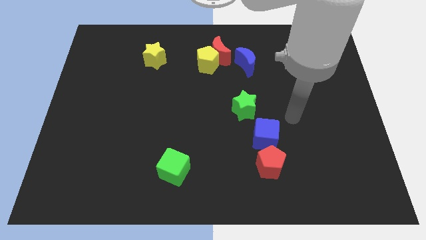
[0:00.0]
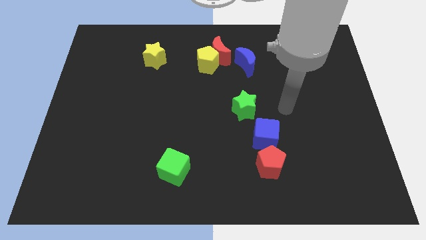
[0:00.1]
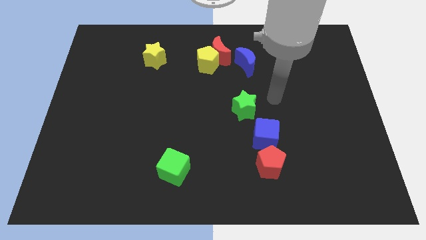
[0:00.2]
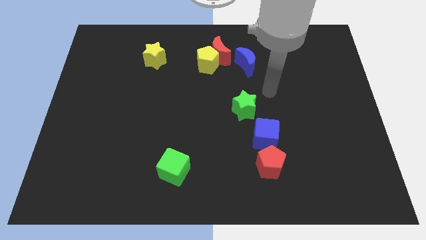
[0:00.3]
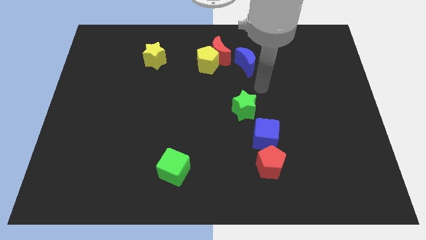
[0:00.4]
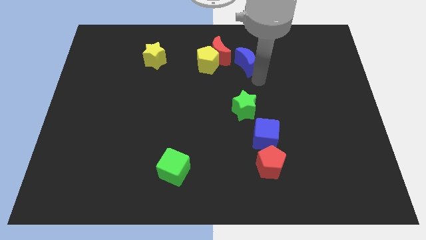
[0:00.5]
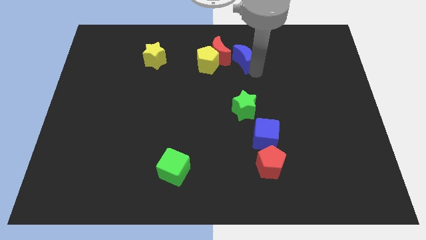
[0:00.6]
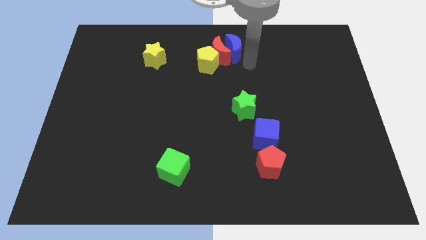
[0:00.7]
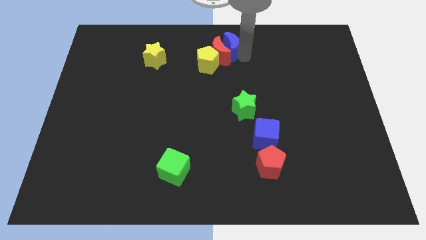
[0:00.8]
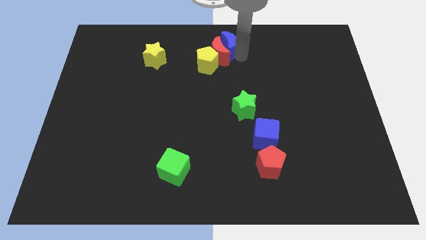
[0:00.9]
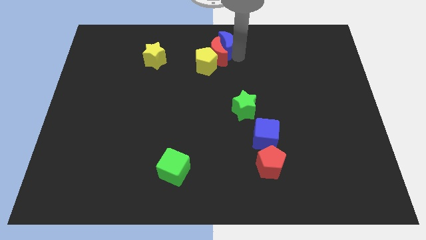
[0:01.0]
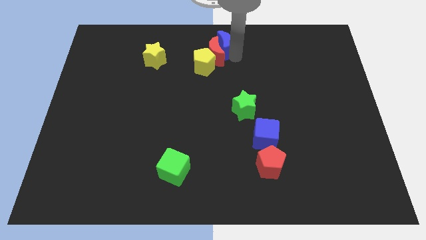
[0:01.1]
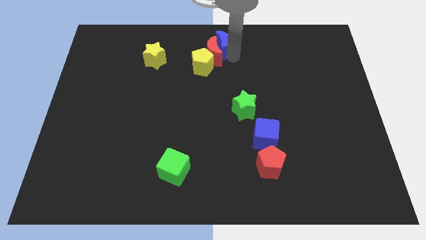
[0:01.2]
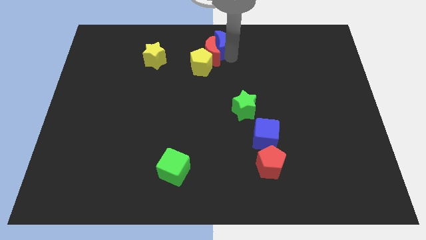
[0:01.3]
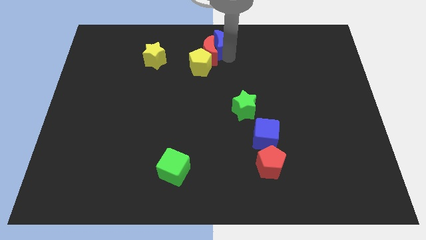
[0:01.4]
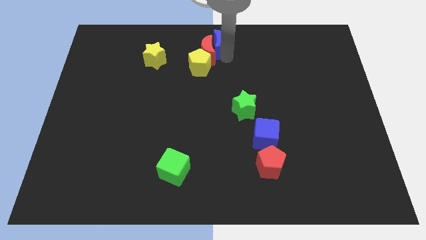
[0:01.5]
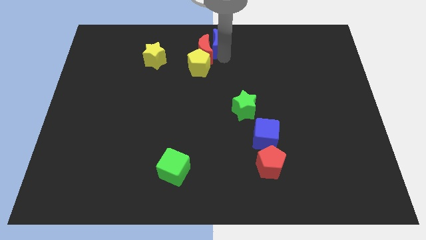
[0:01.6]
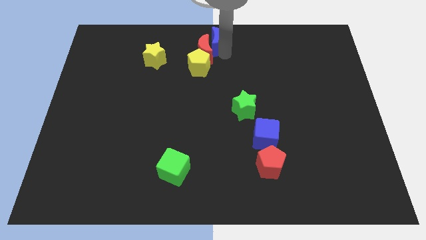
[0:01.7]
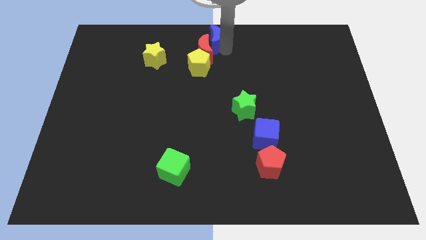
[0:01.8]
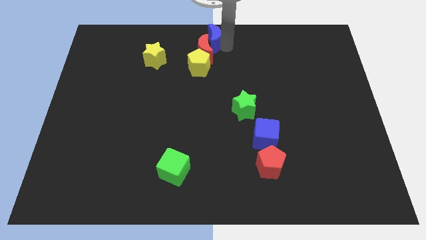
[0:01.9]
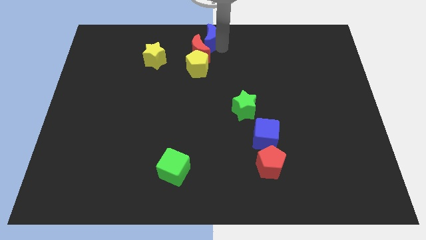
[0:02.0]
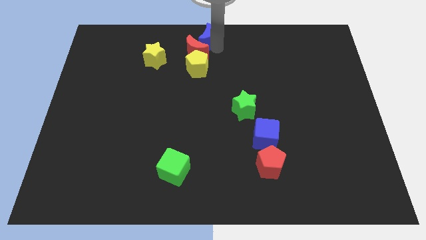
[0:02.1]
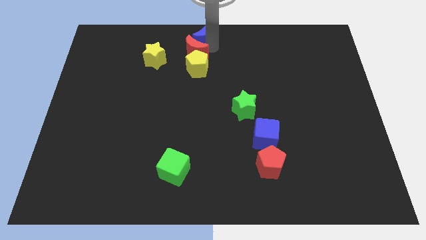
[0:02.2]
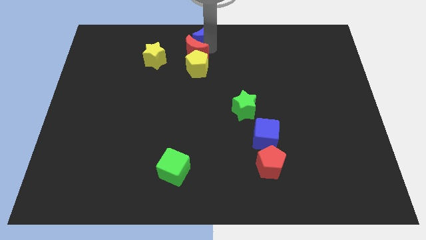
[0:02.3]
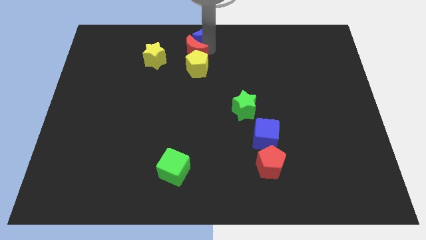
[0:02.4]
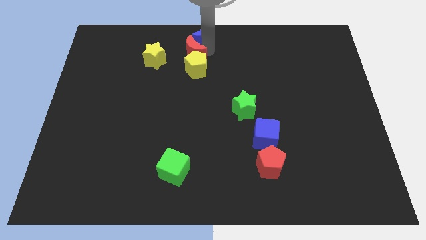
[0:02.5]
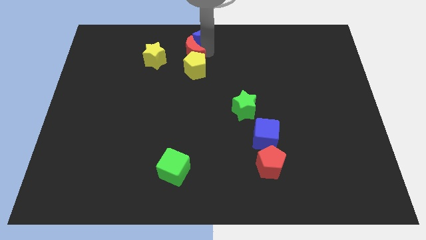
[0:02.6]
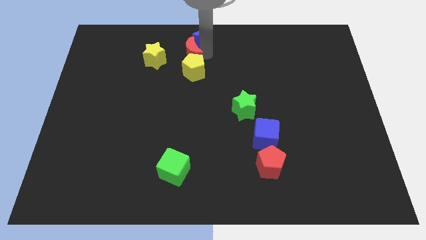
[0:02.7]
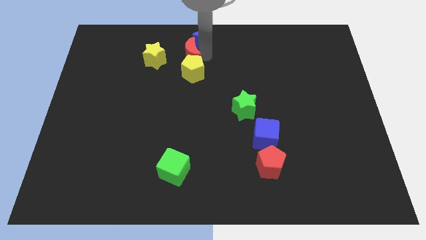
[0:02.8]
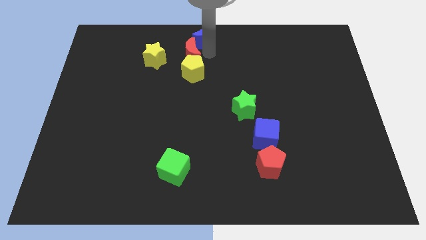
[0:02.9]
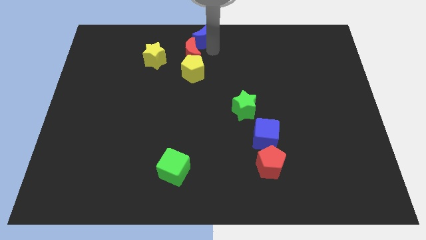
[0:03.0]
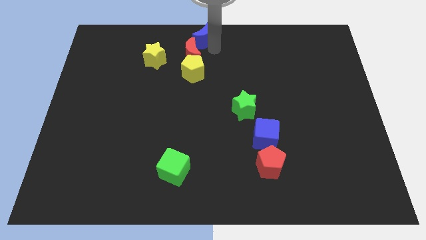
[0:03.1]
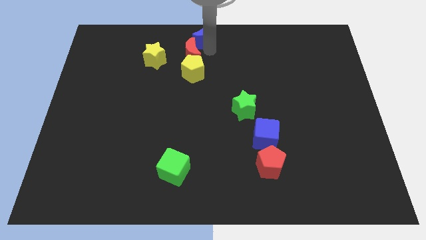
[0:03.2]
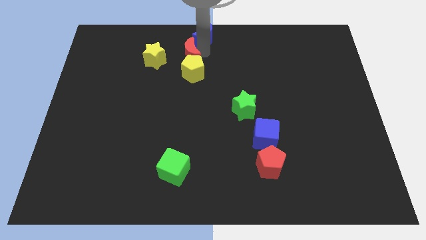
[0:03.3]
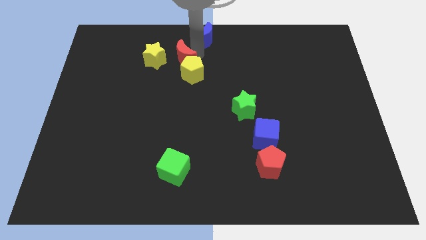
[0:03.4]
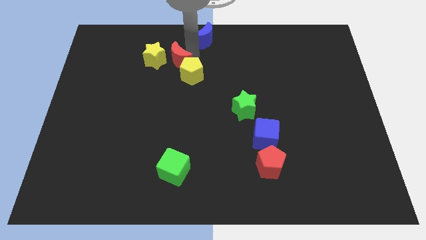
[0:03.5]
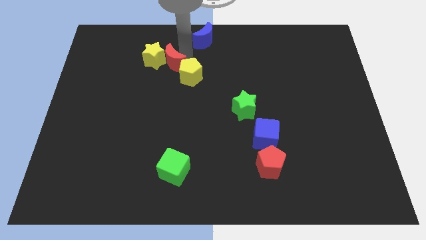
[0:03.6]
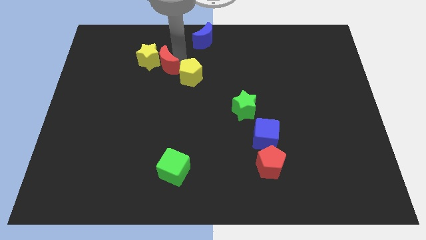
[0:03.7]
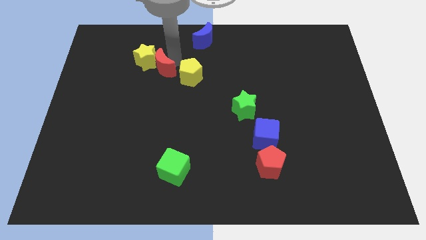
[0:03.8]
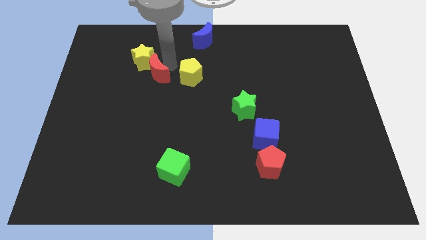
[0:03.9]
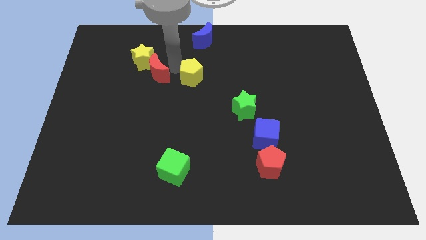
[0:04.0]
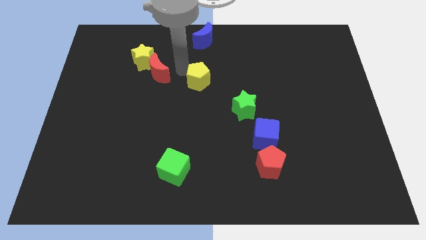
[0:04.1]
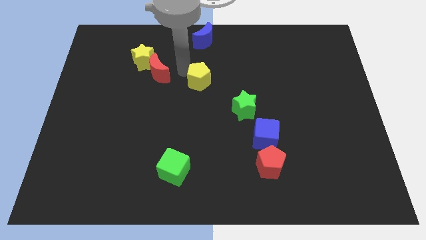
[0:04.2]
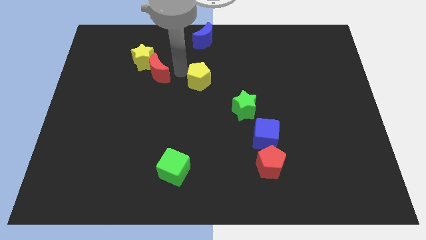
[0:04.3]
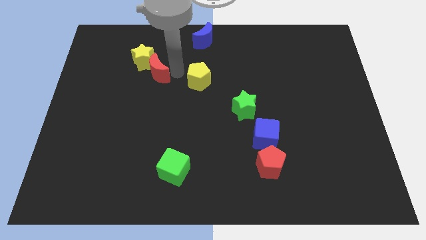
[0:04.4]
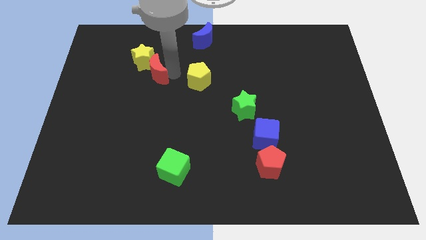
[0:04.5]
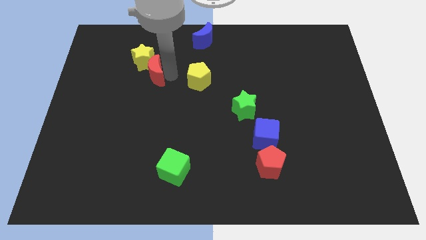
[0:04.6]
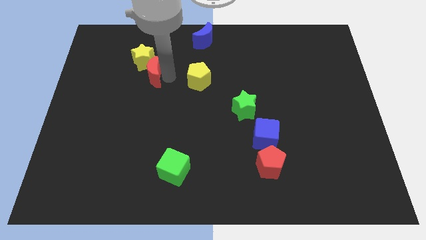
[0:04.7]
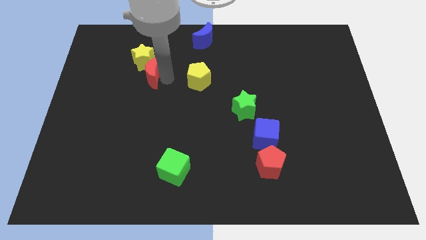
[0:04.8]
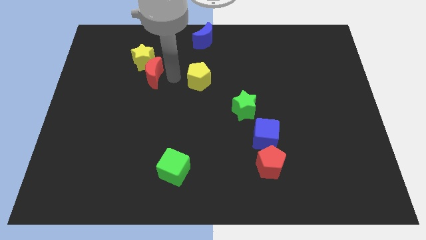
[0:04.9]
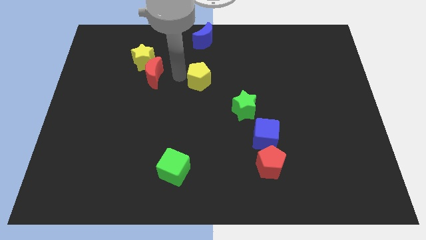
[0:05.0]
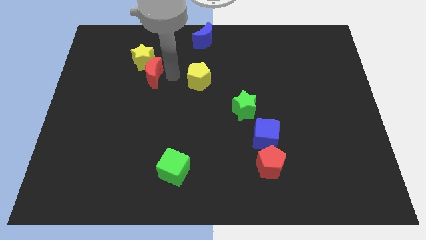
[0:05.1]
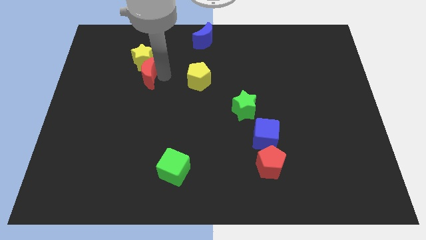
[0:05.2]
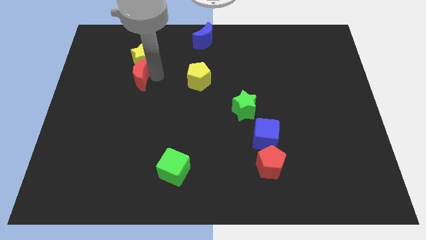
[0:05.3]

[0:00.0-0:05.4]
move the red moon diagonally down and to the left of the yellow star

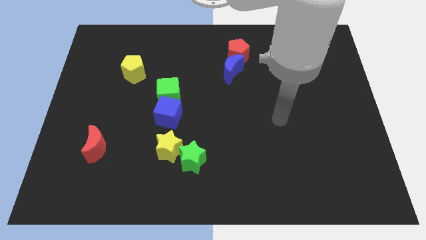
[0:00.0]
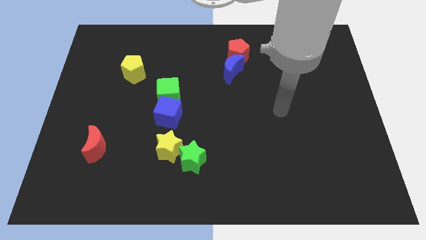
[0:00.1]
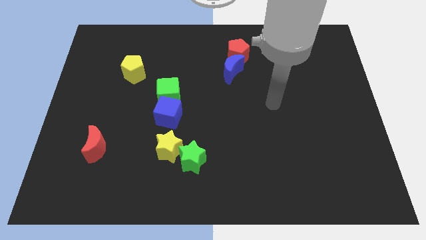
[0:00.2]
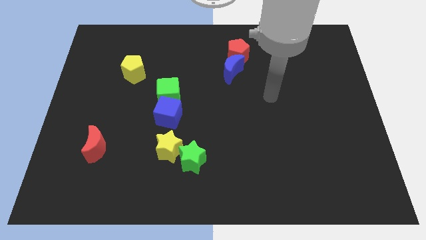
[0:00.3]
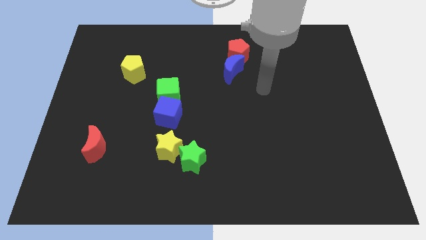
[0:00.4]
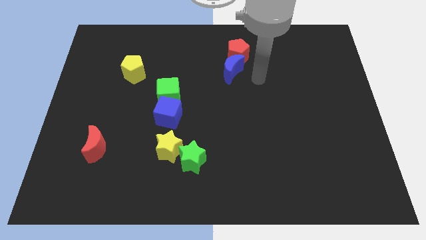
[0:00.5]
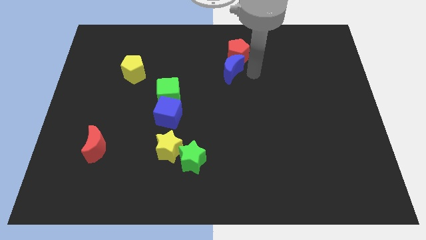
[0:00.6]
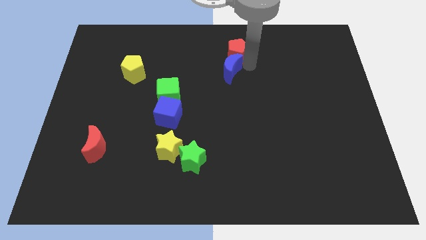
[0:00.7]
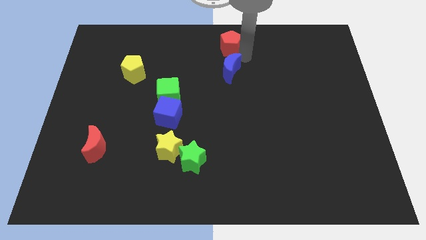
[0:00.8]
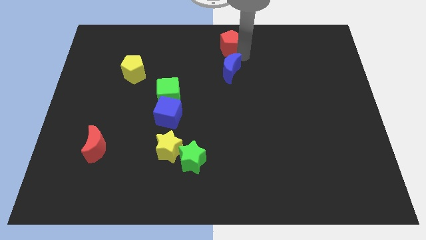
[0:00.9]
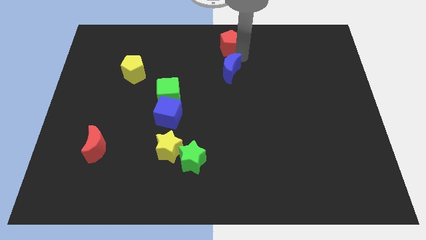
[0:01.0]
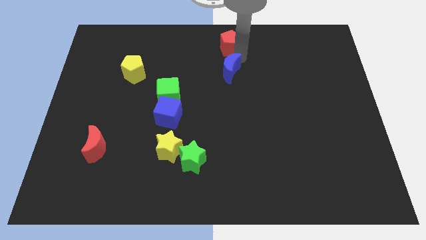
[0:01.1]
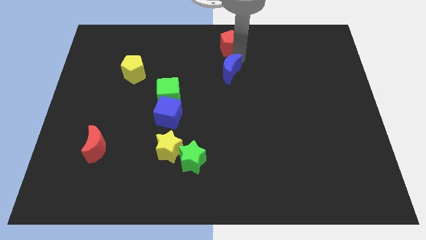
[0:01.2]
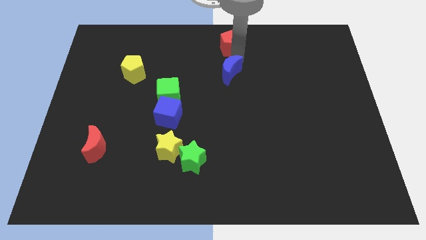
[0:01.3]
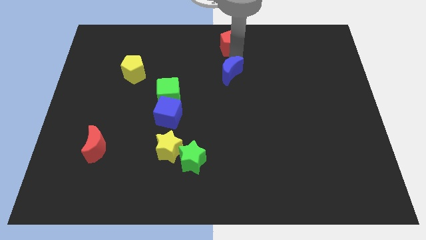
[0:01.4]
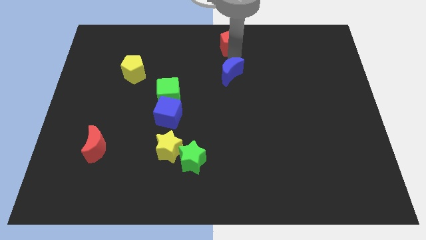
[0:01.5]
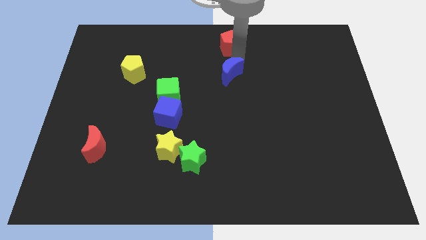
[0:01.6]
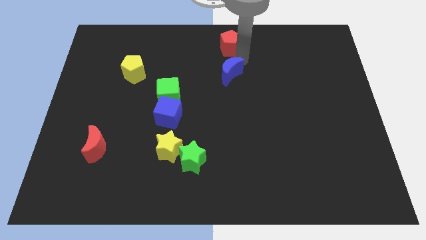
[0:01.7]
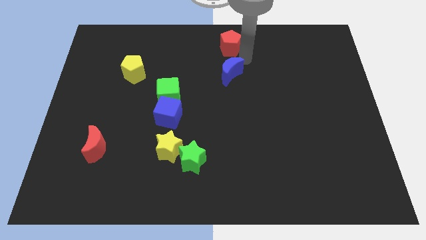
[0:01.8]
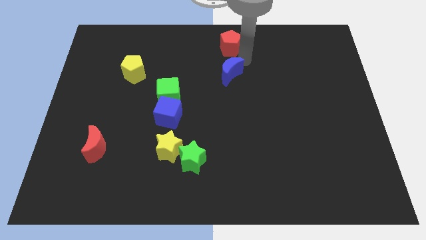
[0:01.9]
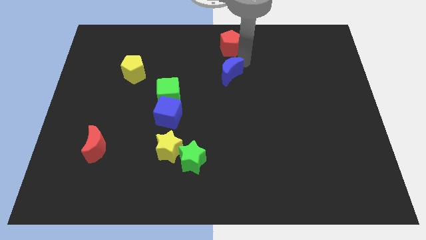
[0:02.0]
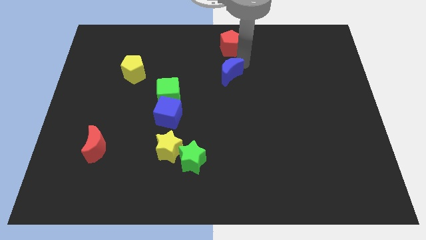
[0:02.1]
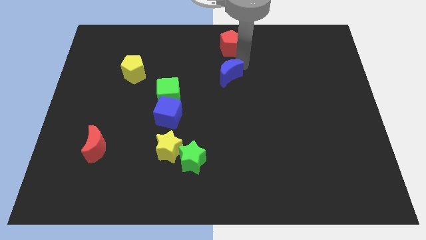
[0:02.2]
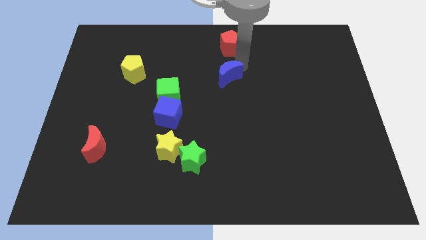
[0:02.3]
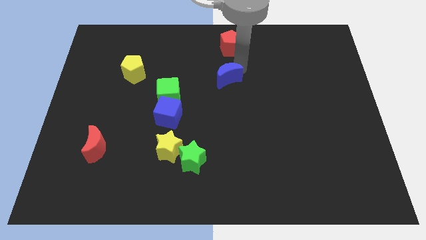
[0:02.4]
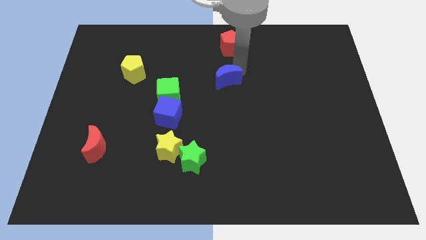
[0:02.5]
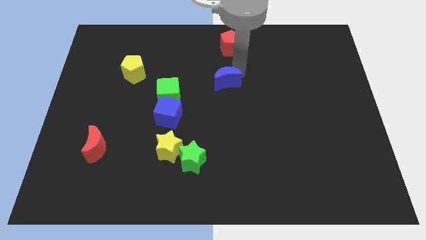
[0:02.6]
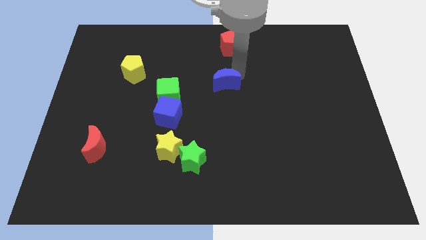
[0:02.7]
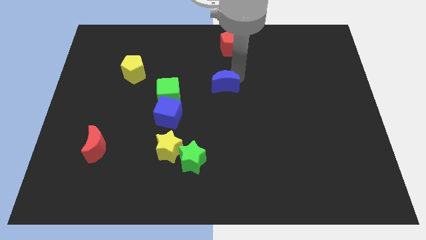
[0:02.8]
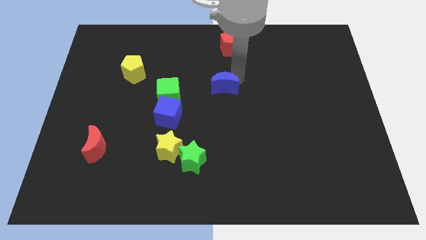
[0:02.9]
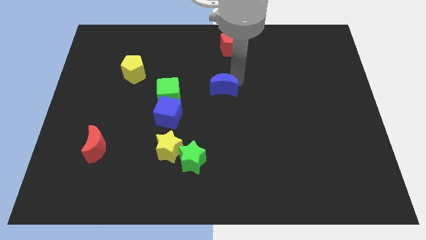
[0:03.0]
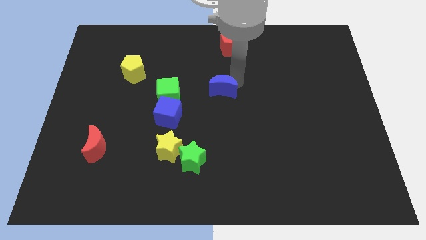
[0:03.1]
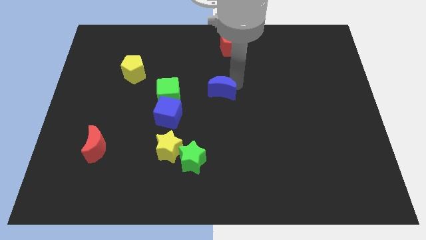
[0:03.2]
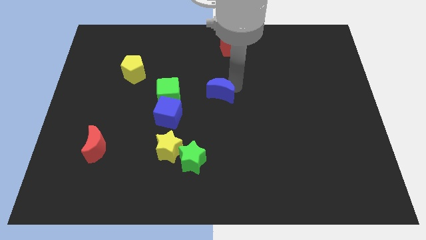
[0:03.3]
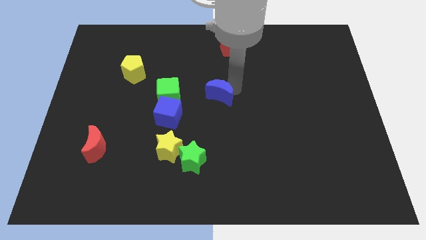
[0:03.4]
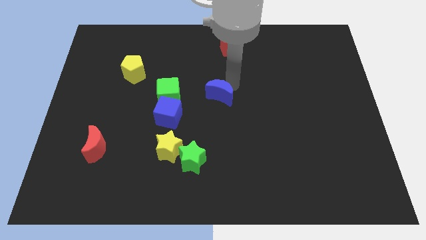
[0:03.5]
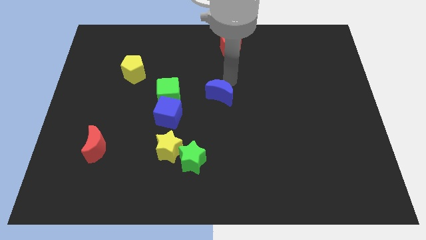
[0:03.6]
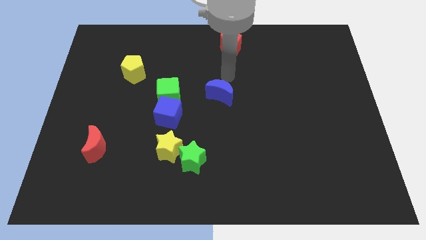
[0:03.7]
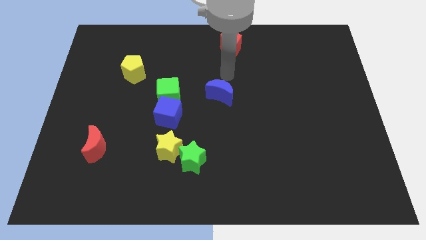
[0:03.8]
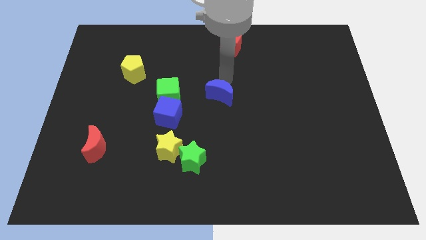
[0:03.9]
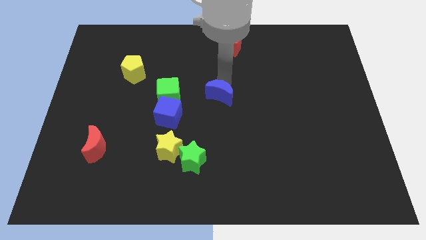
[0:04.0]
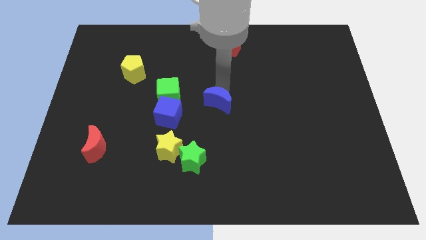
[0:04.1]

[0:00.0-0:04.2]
move the blue moon to the right side of the blue cube
